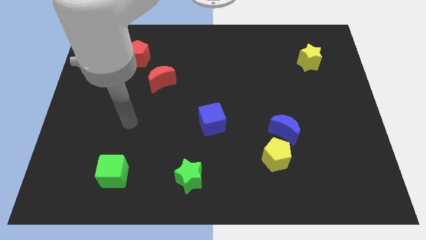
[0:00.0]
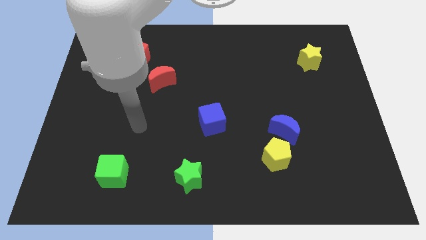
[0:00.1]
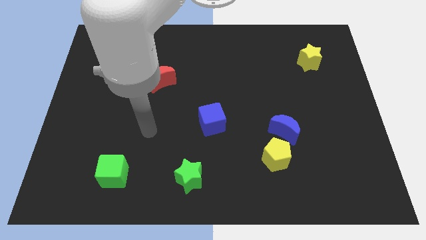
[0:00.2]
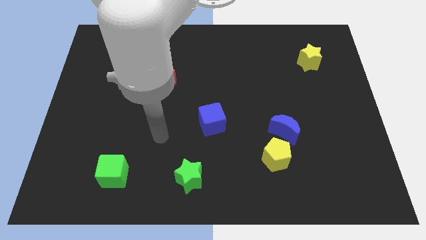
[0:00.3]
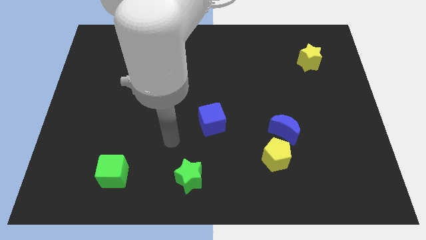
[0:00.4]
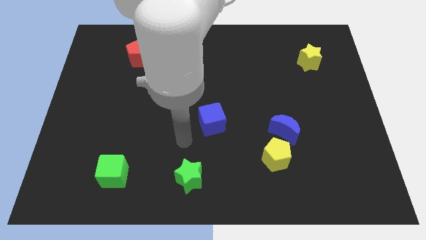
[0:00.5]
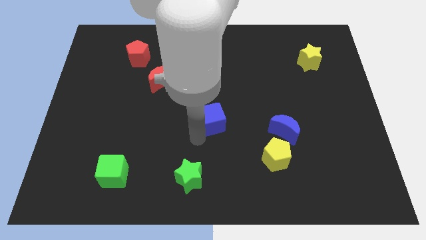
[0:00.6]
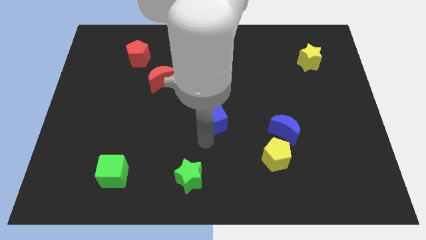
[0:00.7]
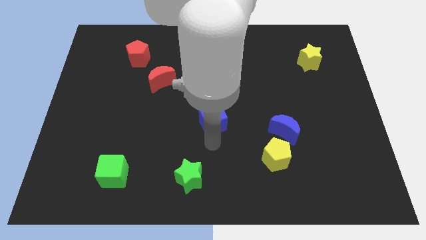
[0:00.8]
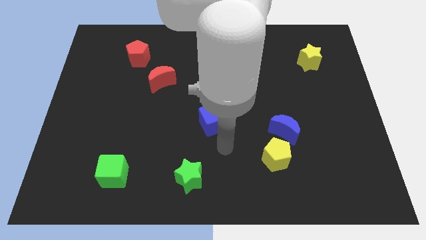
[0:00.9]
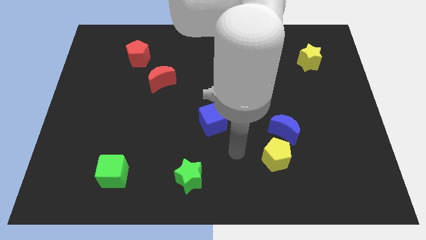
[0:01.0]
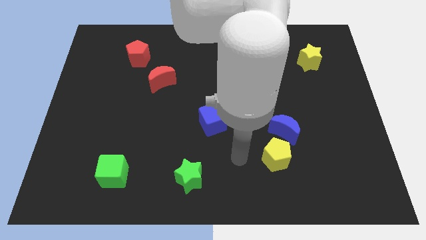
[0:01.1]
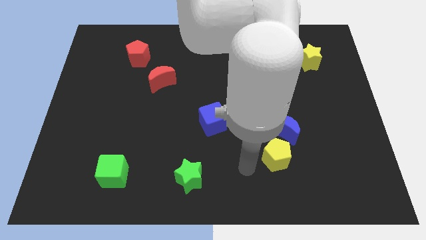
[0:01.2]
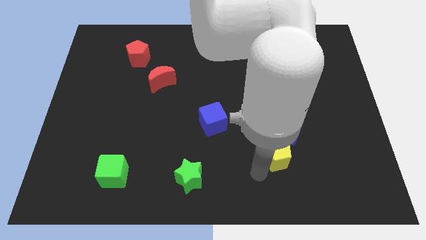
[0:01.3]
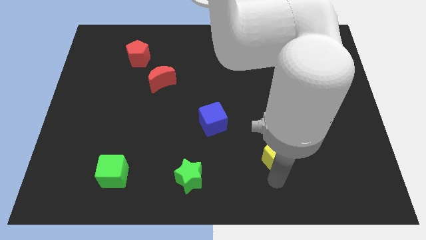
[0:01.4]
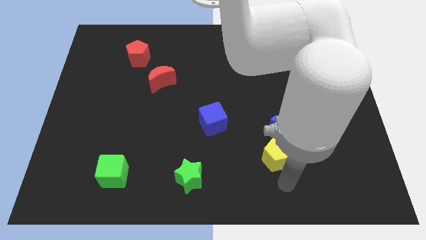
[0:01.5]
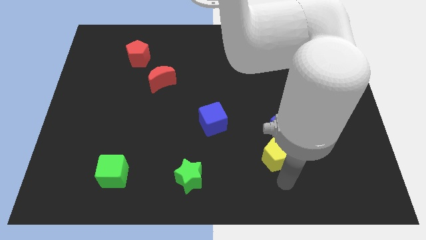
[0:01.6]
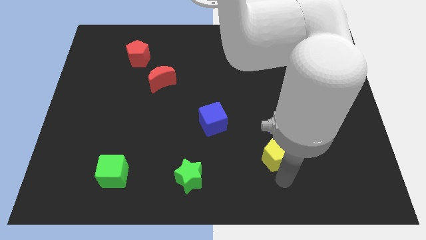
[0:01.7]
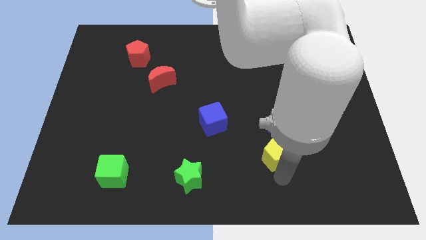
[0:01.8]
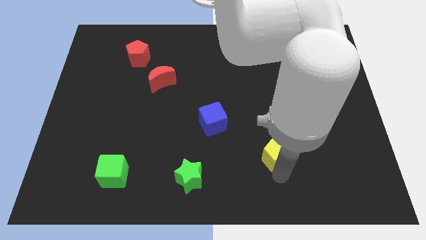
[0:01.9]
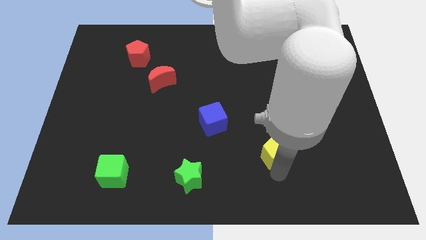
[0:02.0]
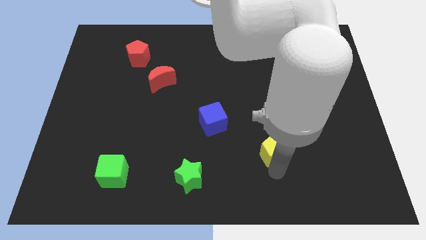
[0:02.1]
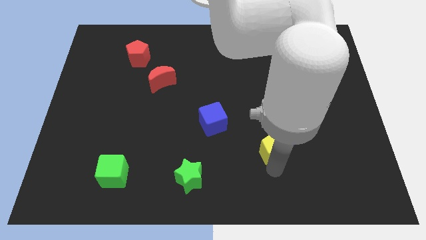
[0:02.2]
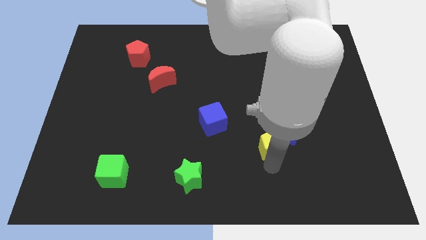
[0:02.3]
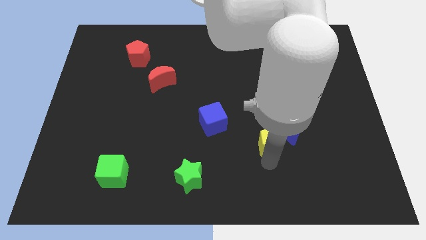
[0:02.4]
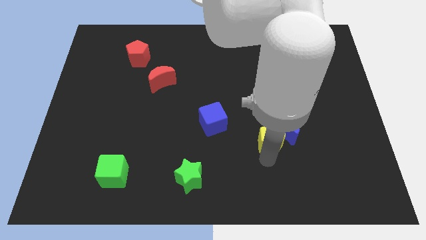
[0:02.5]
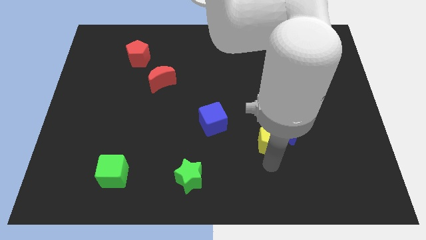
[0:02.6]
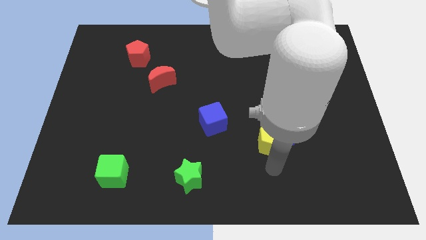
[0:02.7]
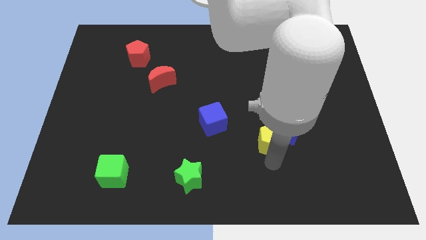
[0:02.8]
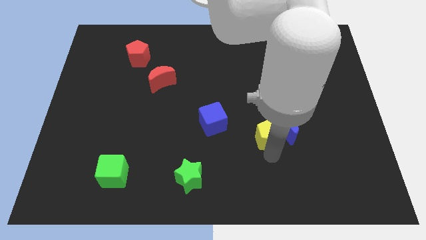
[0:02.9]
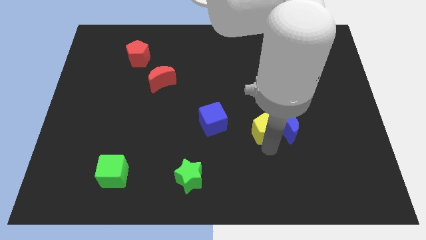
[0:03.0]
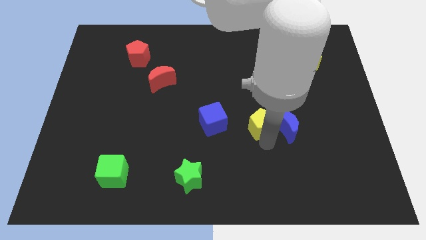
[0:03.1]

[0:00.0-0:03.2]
slightly move the yellow pentagon upwards

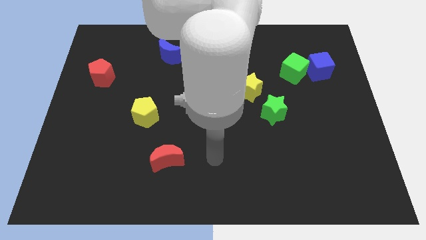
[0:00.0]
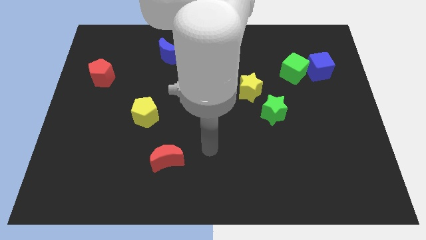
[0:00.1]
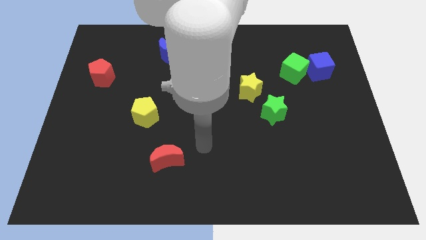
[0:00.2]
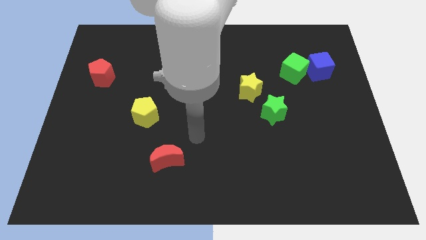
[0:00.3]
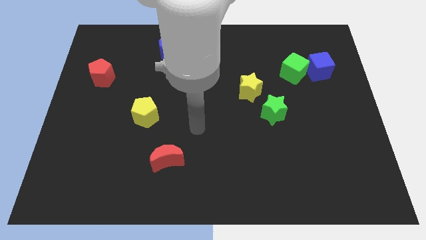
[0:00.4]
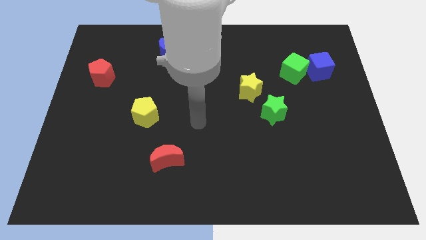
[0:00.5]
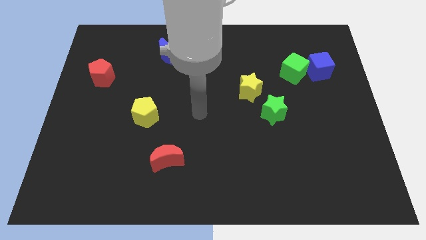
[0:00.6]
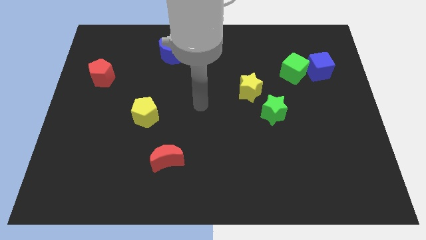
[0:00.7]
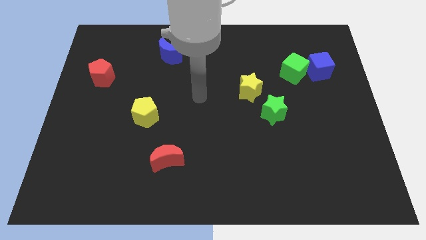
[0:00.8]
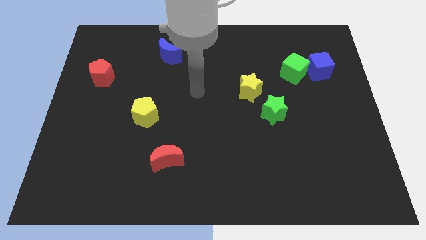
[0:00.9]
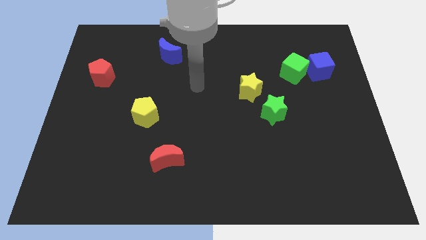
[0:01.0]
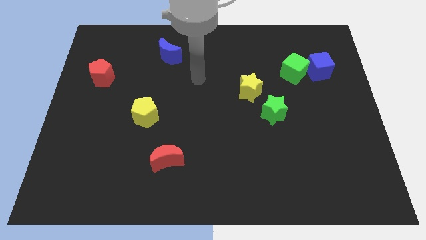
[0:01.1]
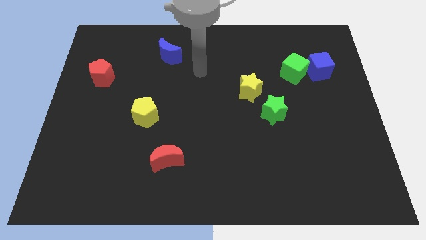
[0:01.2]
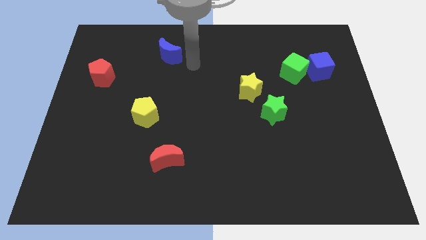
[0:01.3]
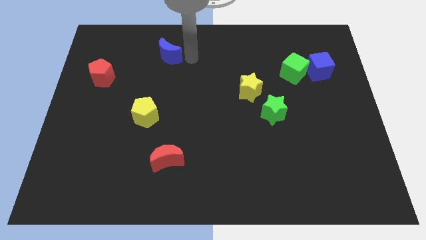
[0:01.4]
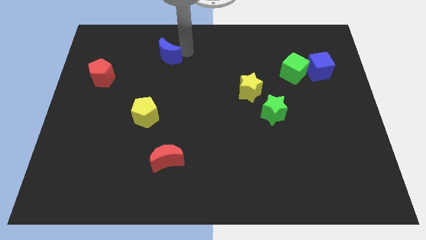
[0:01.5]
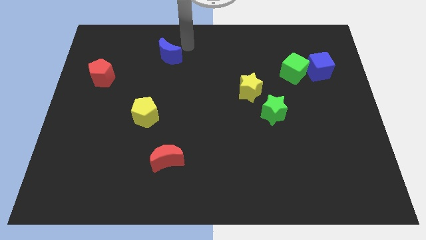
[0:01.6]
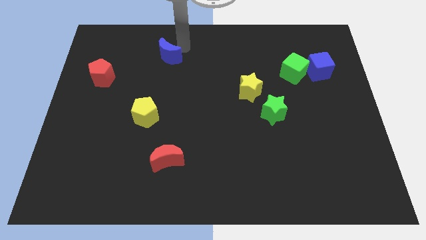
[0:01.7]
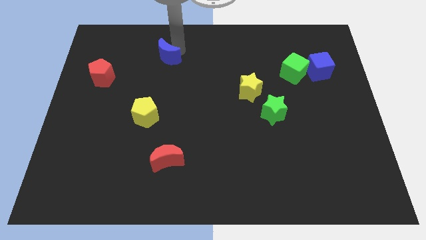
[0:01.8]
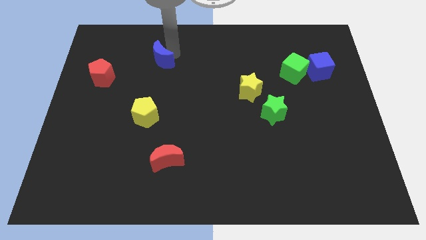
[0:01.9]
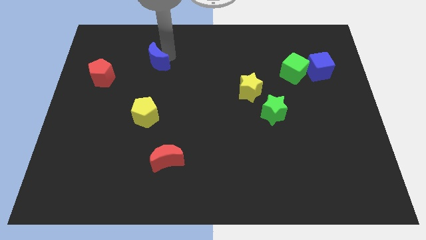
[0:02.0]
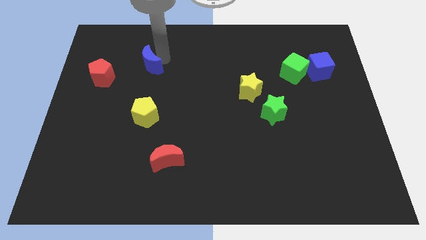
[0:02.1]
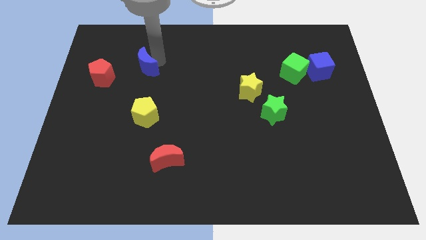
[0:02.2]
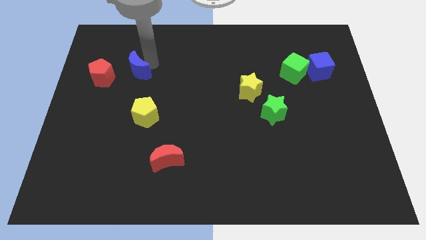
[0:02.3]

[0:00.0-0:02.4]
push the blue moon diagonally downwards and left slightly

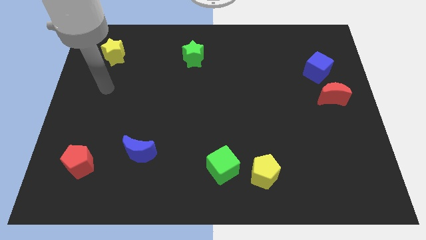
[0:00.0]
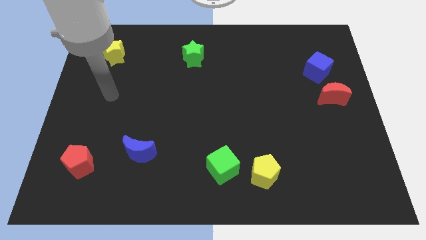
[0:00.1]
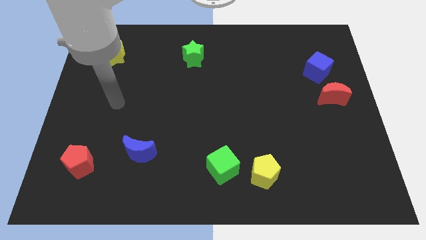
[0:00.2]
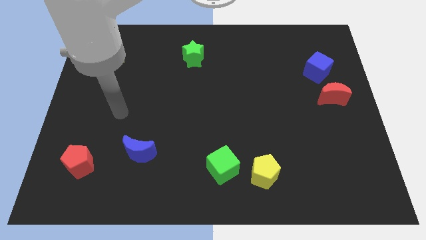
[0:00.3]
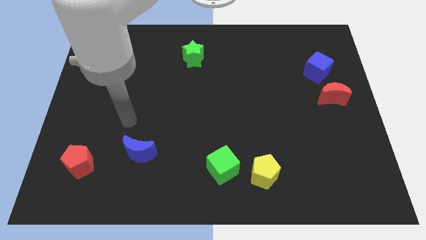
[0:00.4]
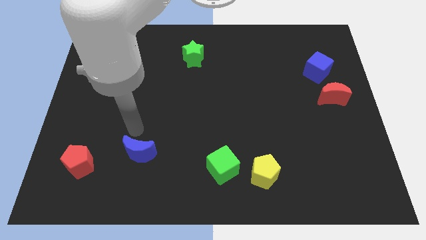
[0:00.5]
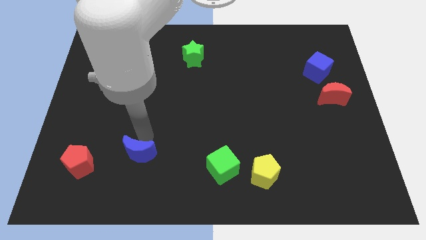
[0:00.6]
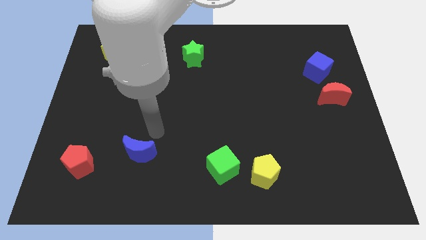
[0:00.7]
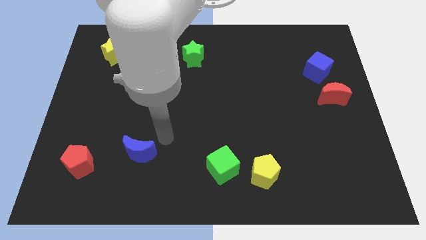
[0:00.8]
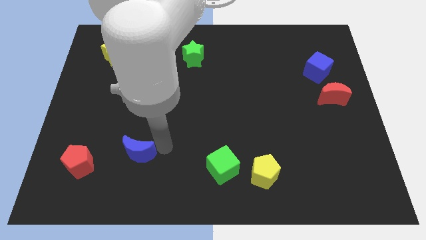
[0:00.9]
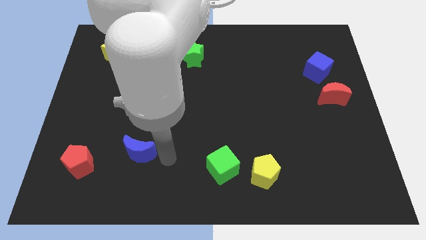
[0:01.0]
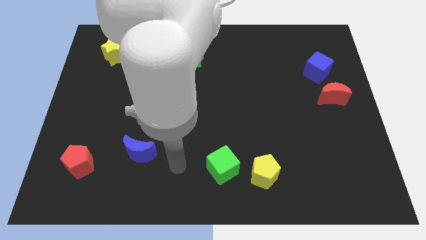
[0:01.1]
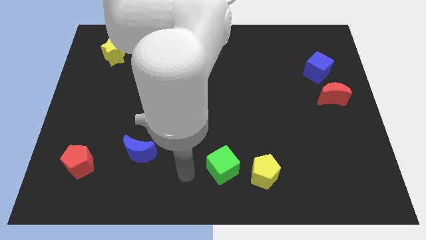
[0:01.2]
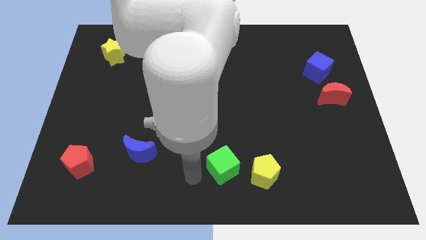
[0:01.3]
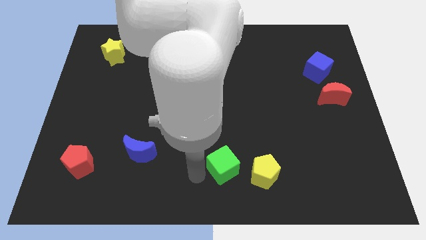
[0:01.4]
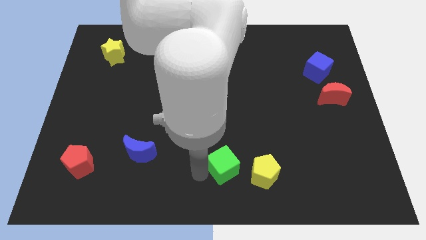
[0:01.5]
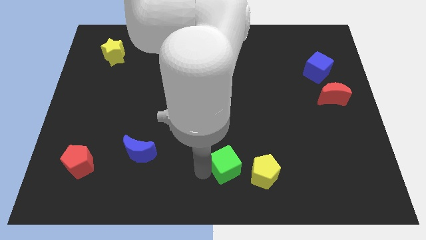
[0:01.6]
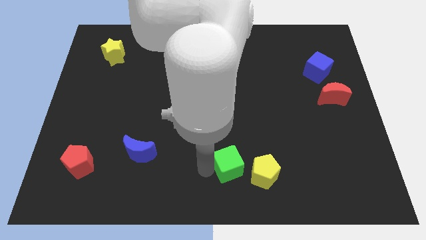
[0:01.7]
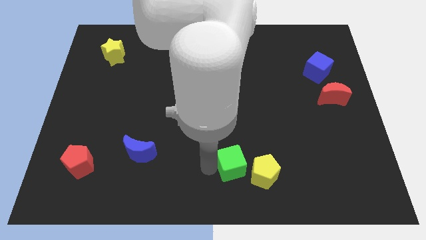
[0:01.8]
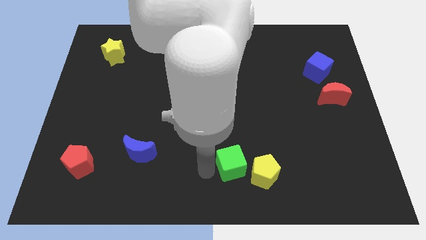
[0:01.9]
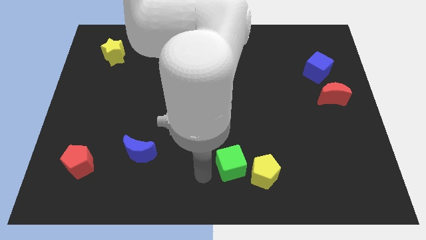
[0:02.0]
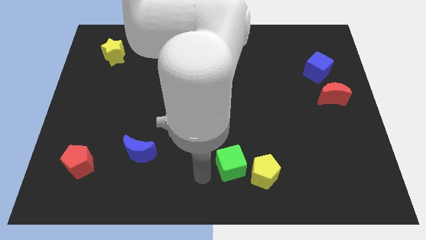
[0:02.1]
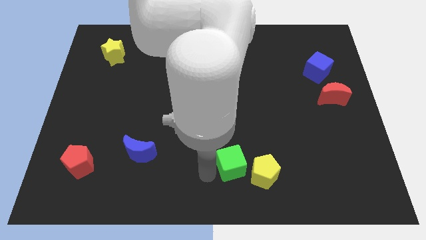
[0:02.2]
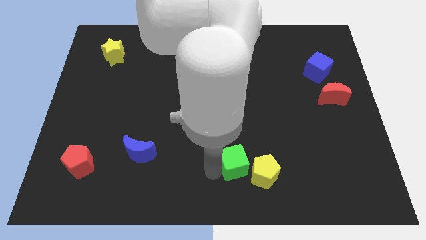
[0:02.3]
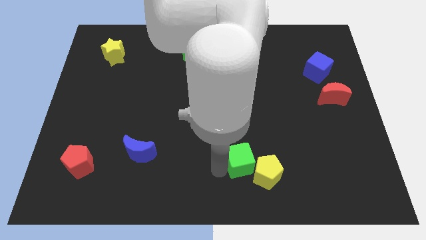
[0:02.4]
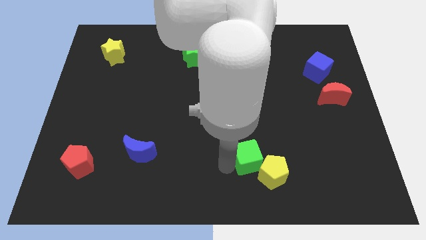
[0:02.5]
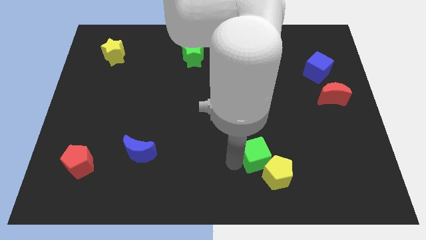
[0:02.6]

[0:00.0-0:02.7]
slide the green cube right a bit
